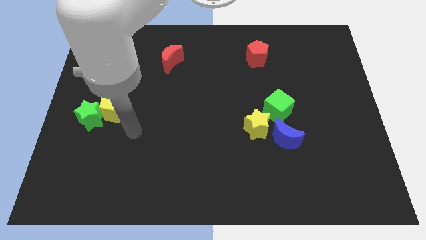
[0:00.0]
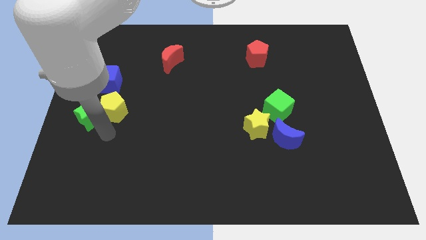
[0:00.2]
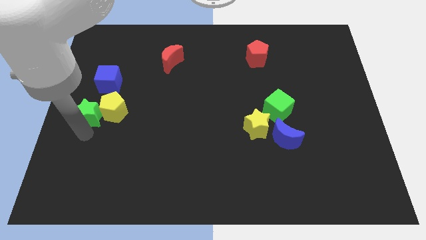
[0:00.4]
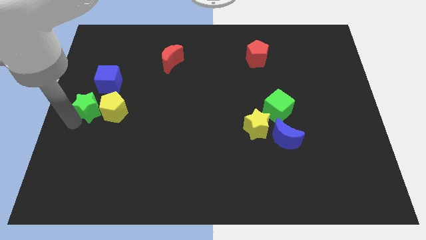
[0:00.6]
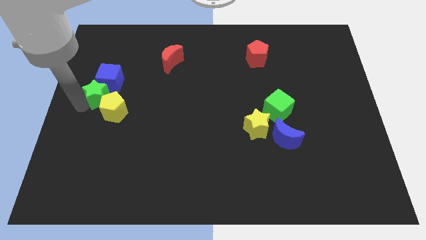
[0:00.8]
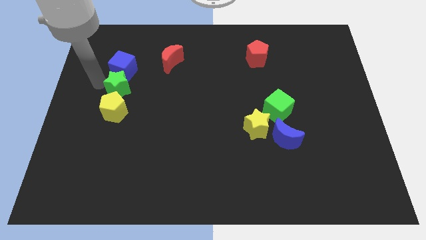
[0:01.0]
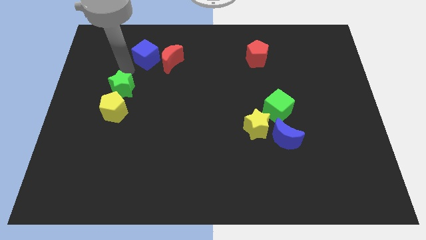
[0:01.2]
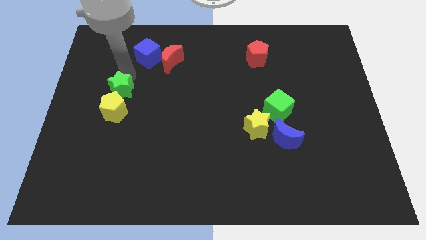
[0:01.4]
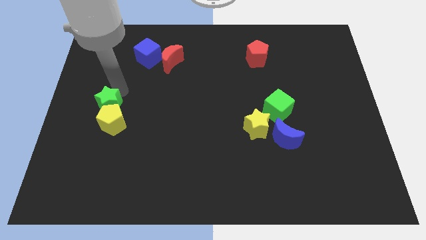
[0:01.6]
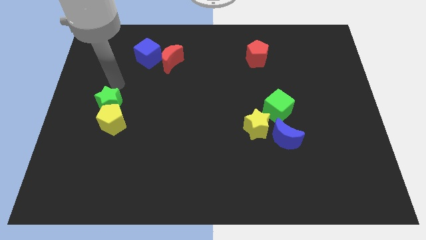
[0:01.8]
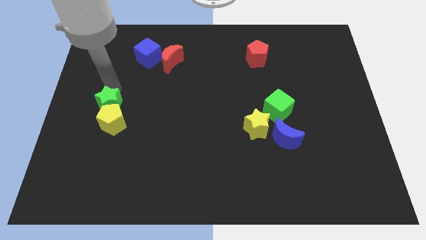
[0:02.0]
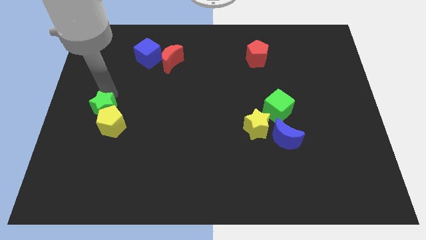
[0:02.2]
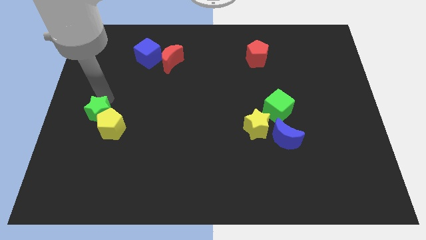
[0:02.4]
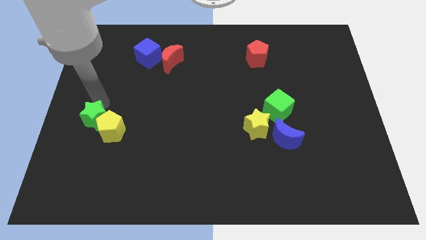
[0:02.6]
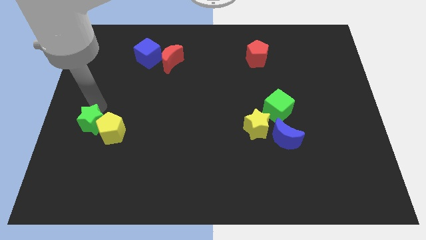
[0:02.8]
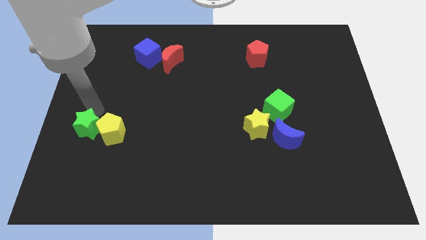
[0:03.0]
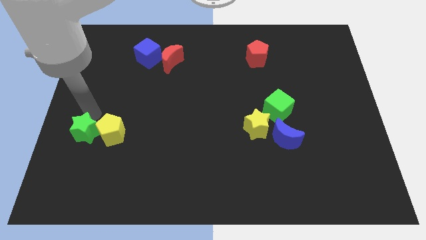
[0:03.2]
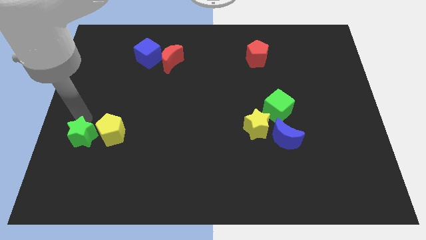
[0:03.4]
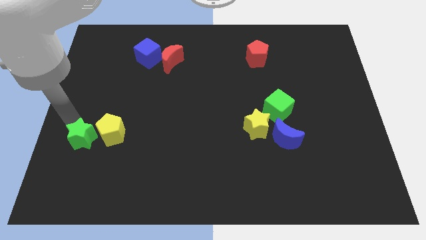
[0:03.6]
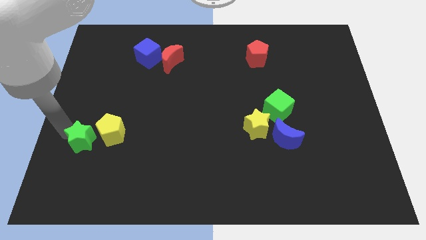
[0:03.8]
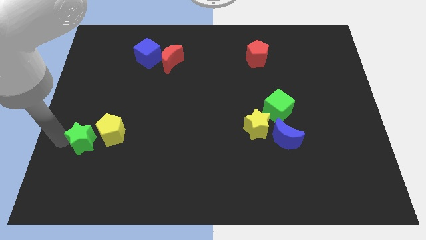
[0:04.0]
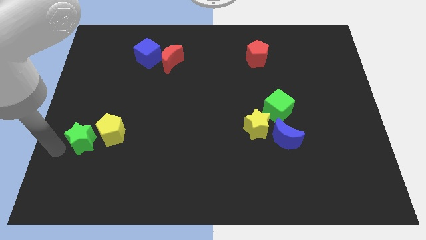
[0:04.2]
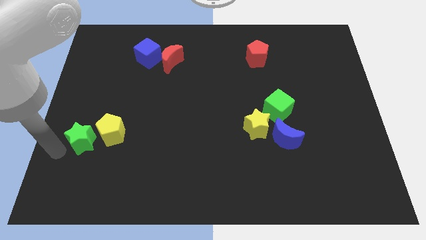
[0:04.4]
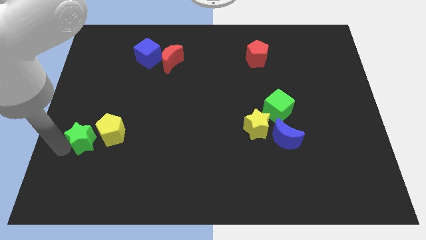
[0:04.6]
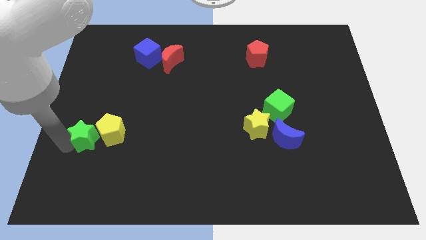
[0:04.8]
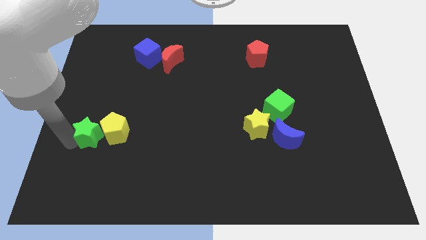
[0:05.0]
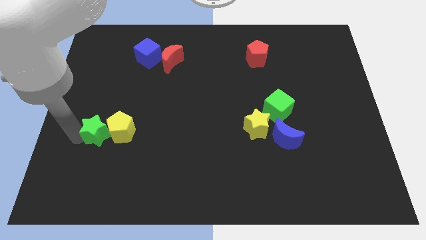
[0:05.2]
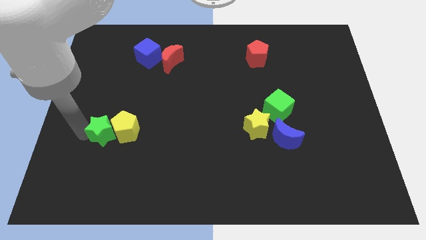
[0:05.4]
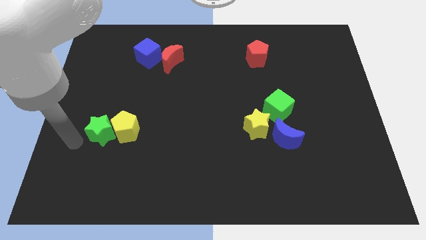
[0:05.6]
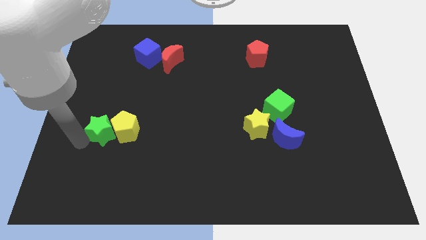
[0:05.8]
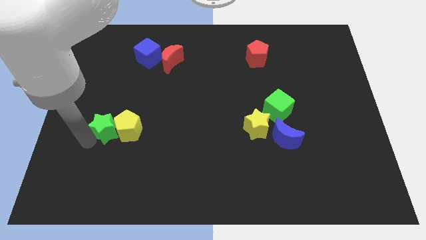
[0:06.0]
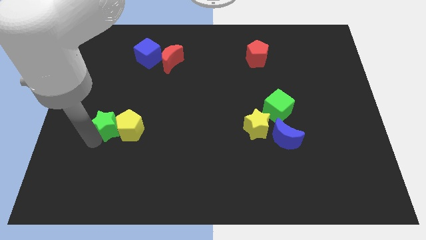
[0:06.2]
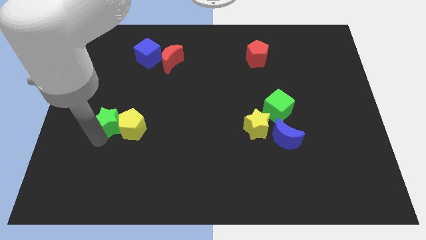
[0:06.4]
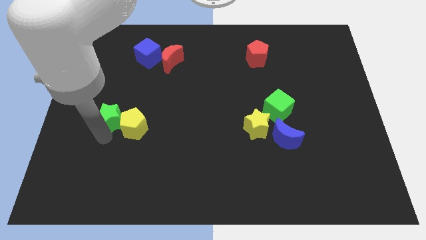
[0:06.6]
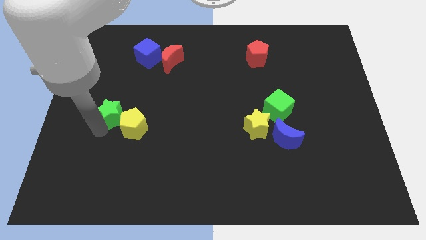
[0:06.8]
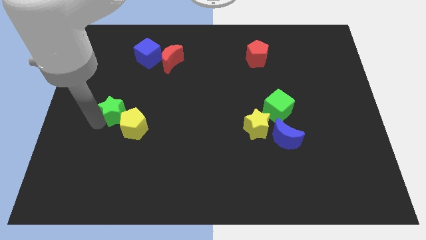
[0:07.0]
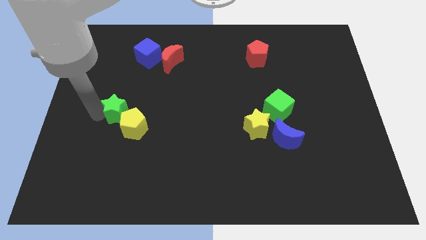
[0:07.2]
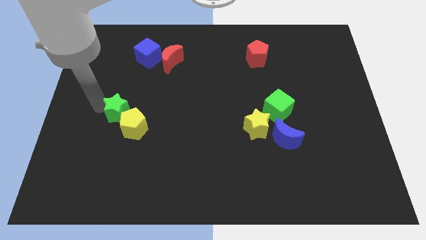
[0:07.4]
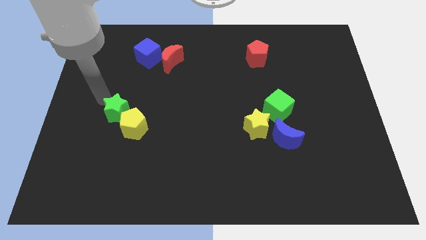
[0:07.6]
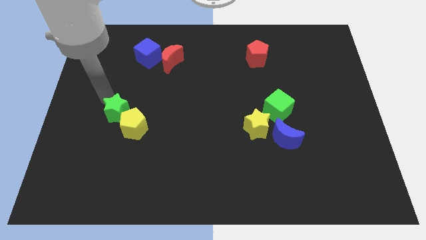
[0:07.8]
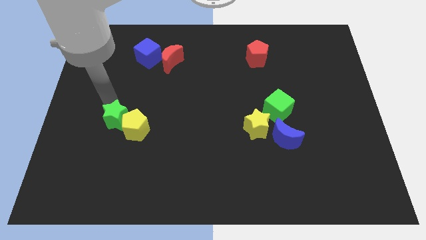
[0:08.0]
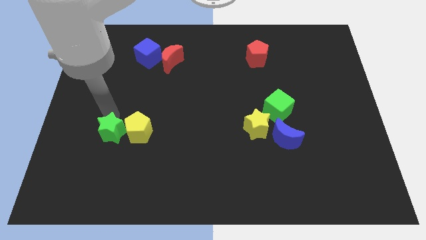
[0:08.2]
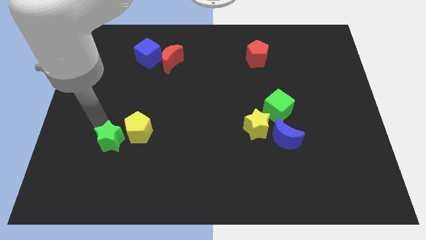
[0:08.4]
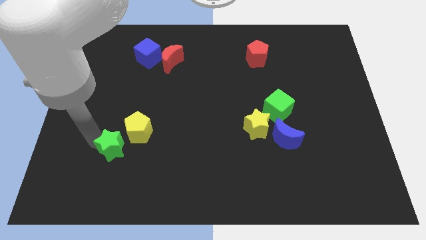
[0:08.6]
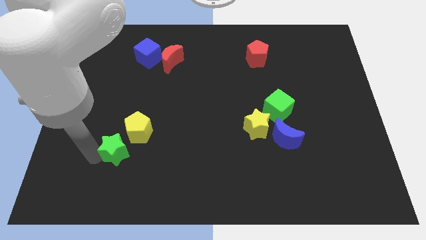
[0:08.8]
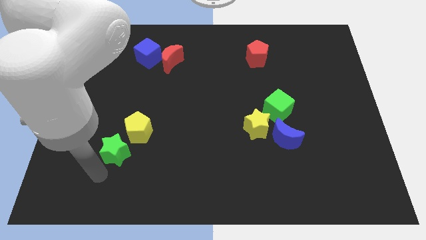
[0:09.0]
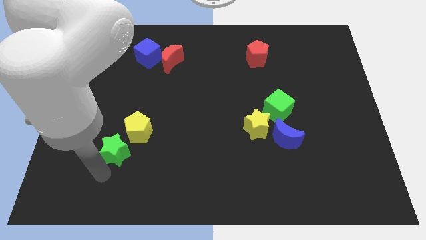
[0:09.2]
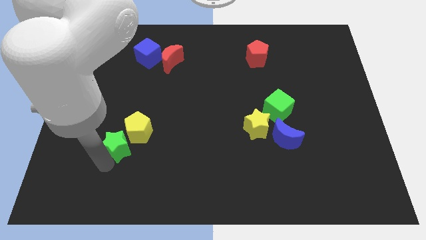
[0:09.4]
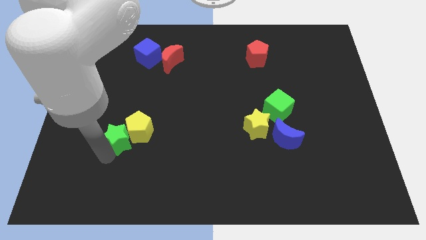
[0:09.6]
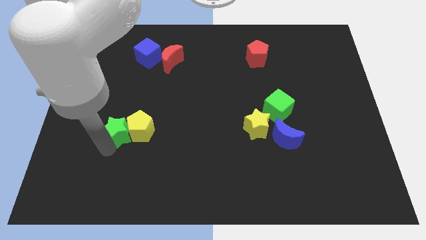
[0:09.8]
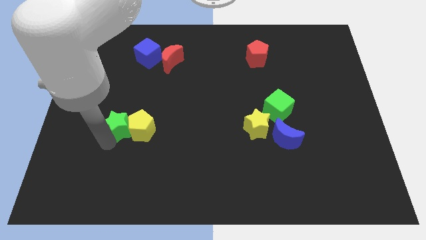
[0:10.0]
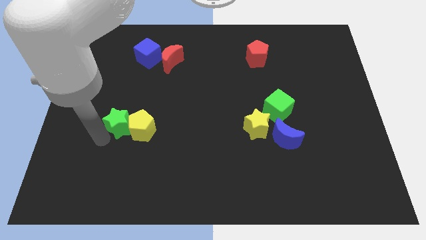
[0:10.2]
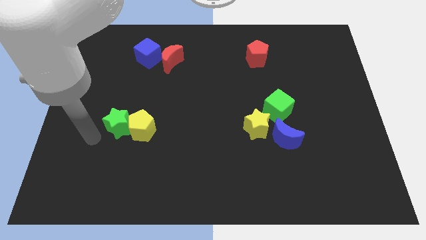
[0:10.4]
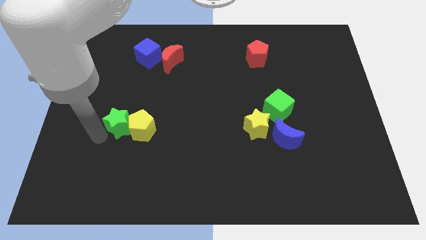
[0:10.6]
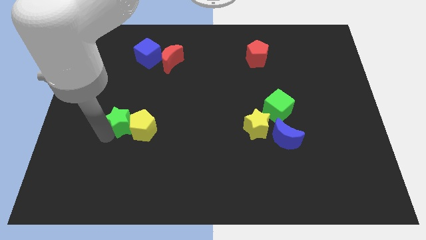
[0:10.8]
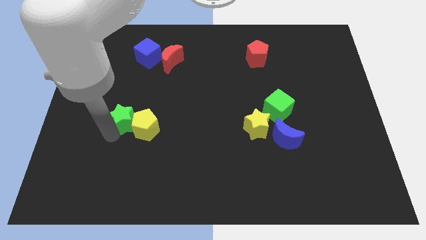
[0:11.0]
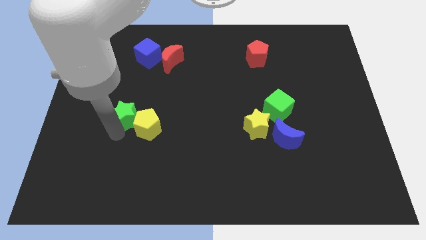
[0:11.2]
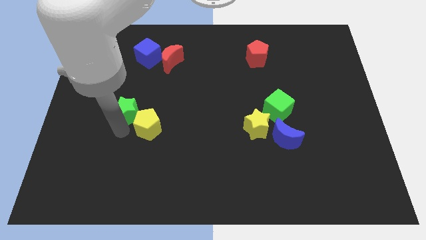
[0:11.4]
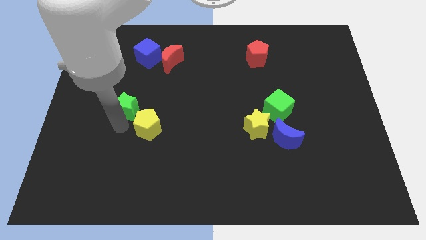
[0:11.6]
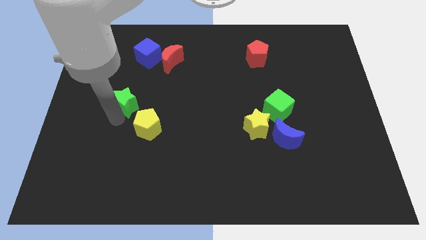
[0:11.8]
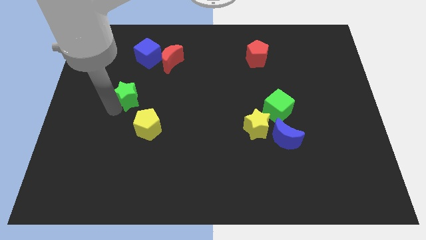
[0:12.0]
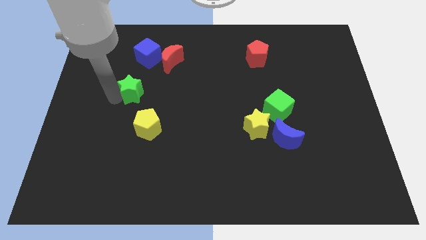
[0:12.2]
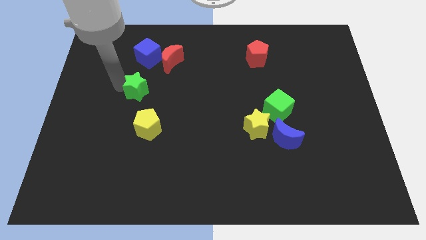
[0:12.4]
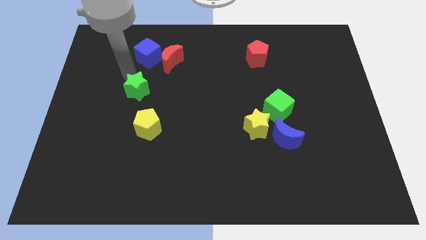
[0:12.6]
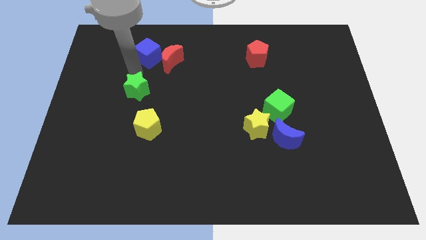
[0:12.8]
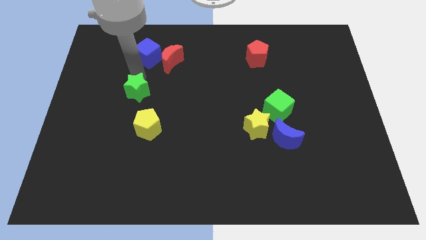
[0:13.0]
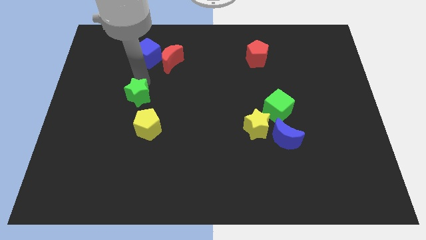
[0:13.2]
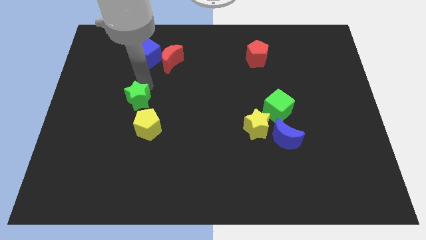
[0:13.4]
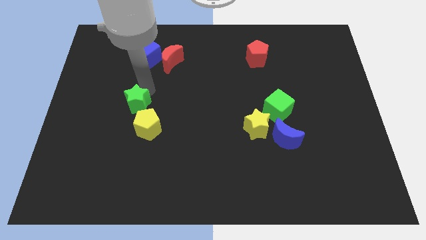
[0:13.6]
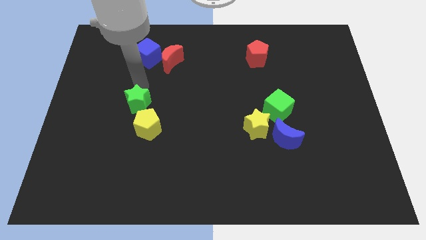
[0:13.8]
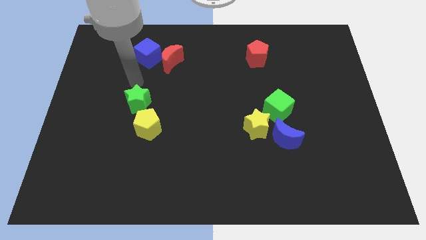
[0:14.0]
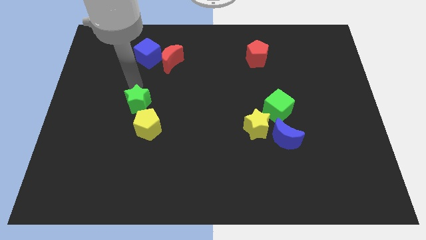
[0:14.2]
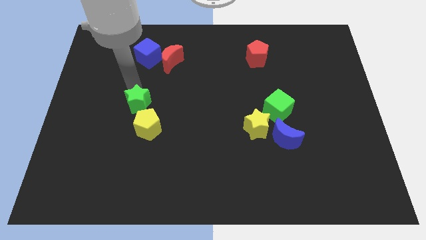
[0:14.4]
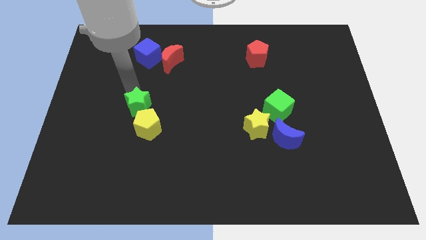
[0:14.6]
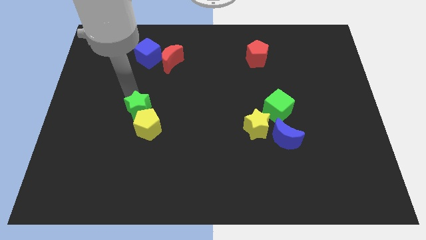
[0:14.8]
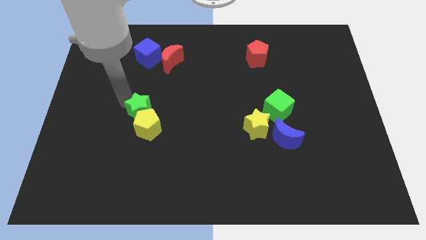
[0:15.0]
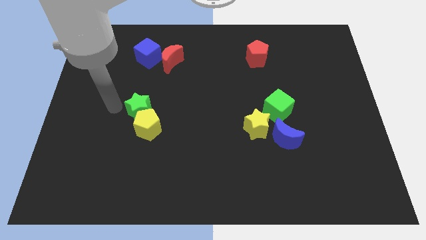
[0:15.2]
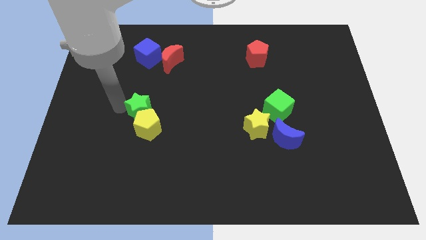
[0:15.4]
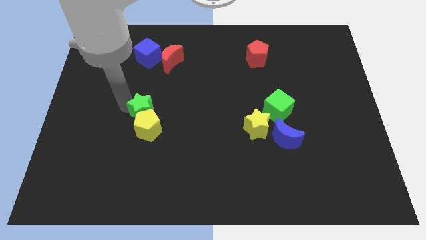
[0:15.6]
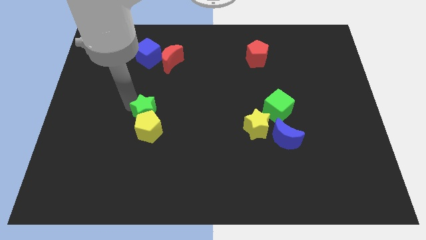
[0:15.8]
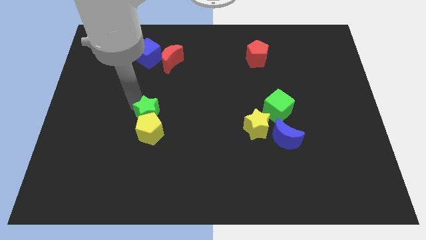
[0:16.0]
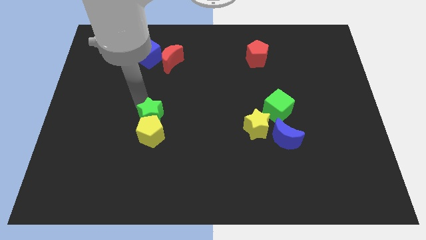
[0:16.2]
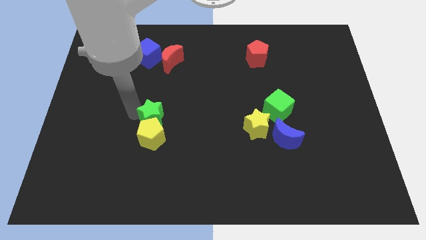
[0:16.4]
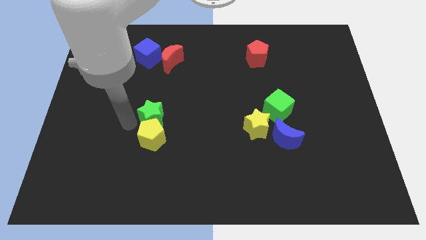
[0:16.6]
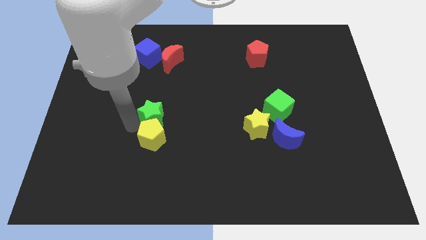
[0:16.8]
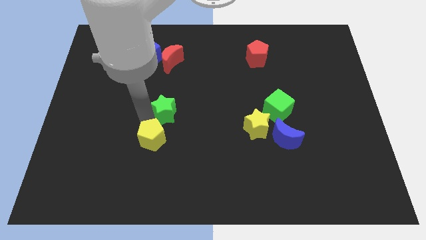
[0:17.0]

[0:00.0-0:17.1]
move the green star to the center
